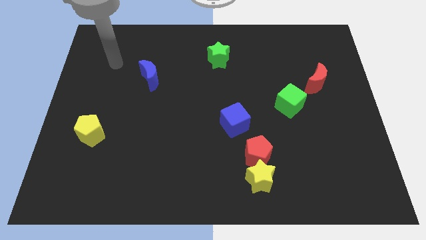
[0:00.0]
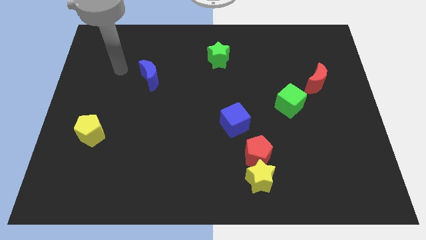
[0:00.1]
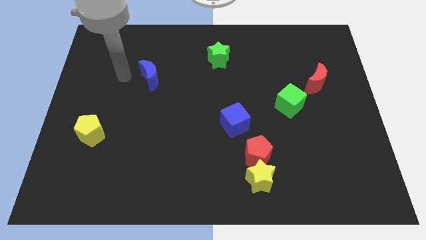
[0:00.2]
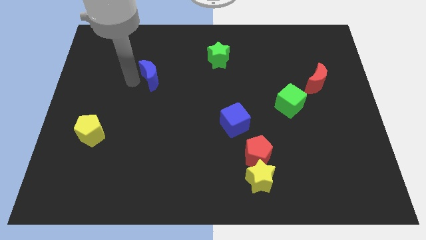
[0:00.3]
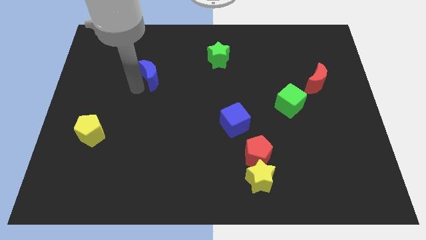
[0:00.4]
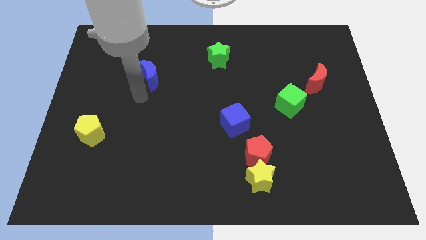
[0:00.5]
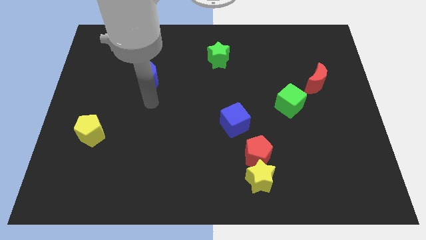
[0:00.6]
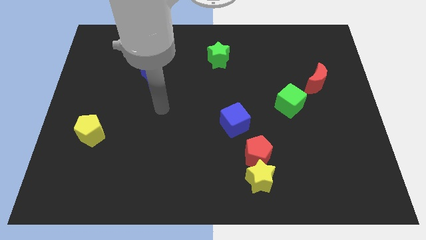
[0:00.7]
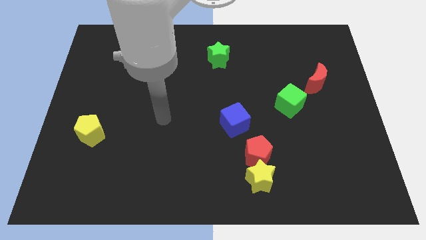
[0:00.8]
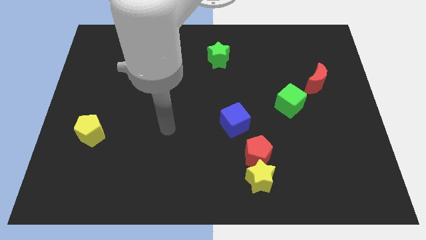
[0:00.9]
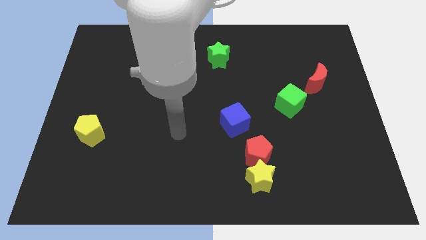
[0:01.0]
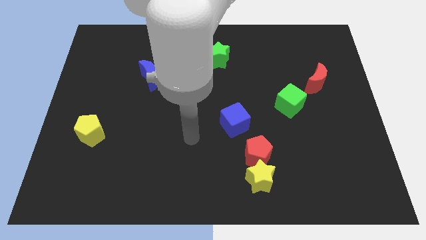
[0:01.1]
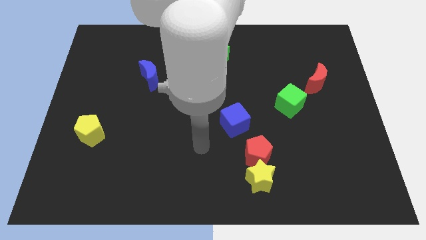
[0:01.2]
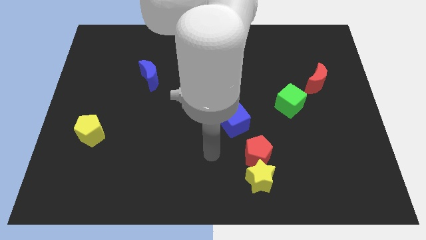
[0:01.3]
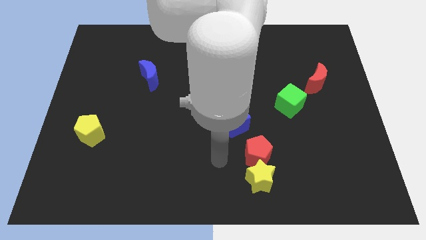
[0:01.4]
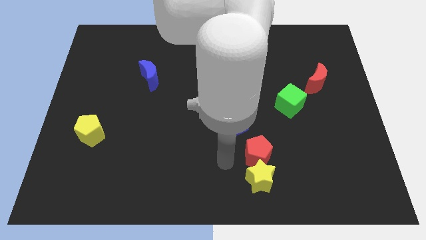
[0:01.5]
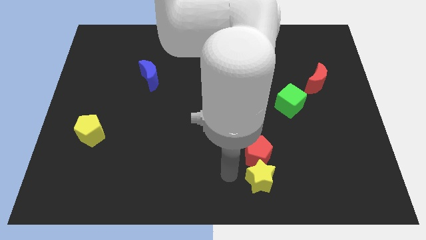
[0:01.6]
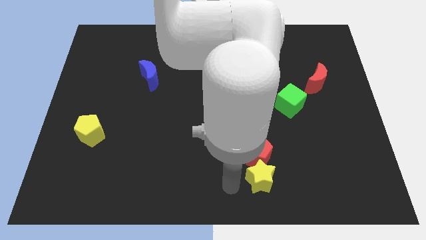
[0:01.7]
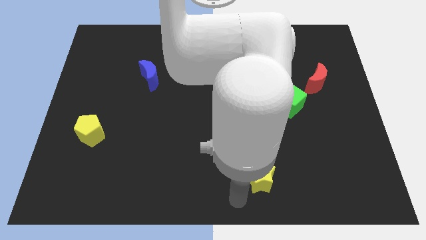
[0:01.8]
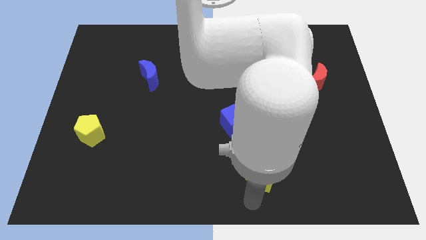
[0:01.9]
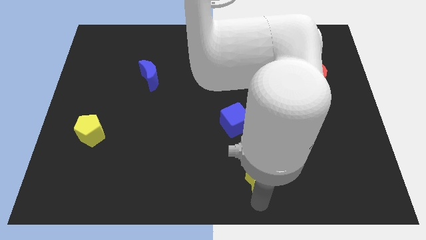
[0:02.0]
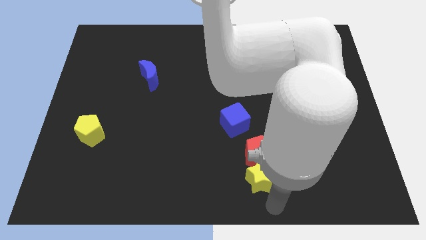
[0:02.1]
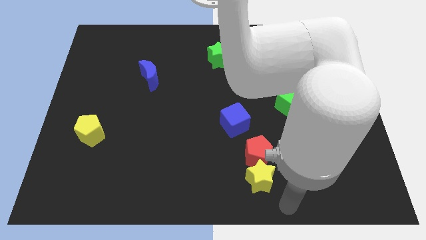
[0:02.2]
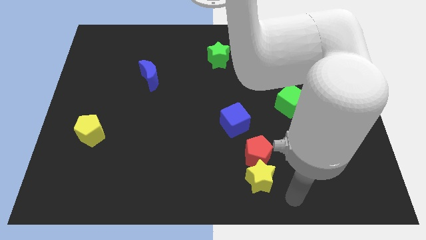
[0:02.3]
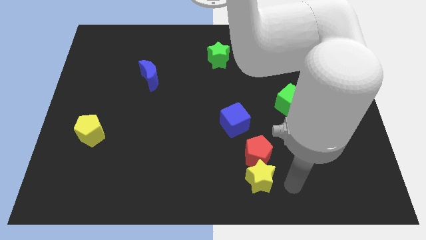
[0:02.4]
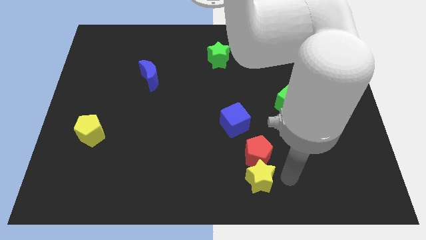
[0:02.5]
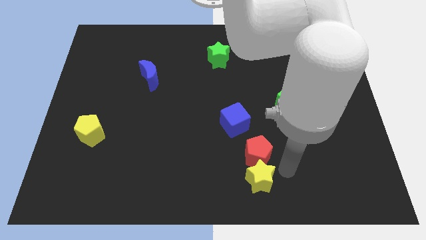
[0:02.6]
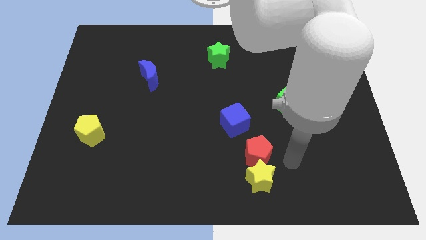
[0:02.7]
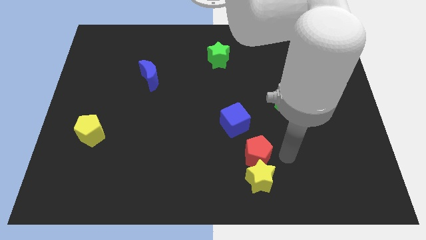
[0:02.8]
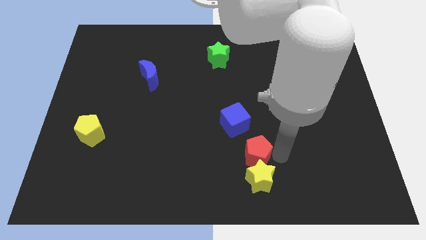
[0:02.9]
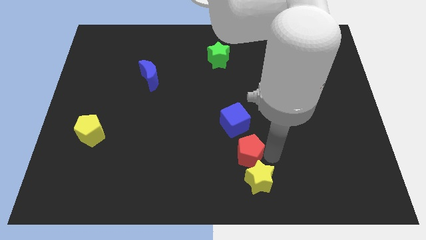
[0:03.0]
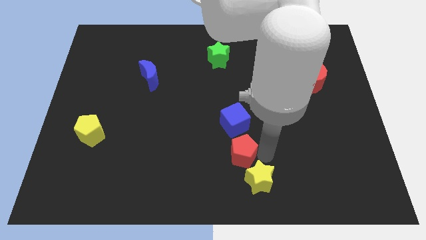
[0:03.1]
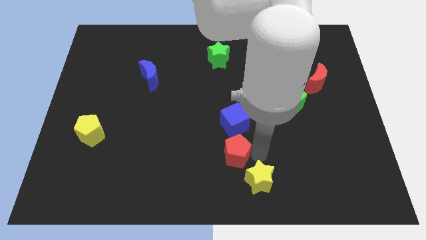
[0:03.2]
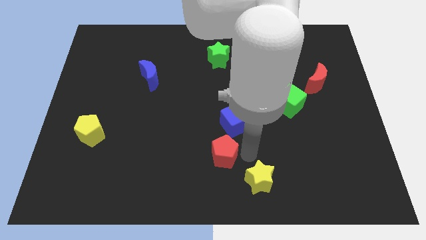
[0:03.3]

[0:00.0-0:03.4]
move the red pentagon left a little bit

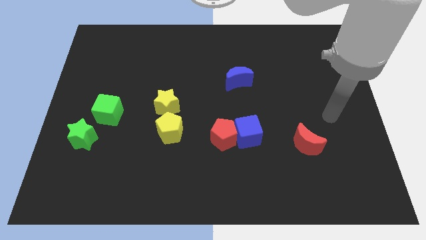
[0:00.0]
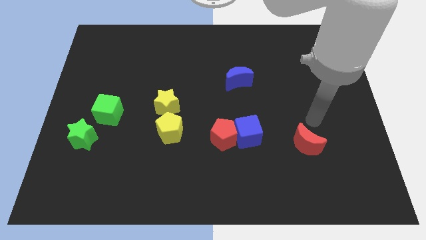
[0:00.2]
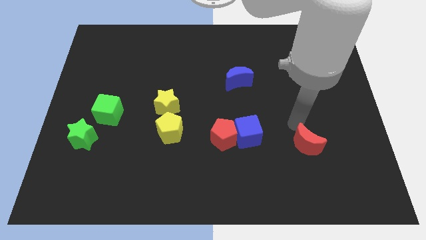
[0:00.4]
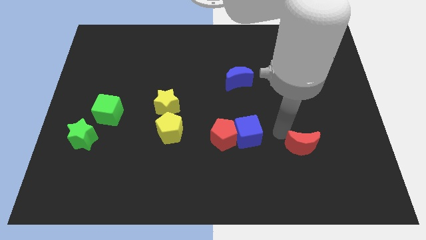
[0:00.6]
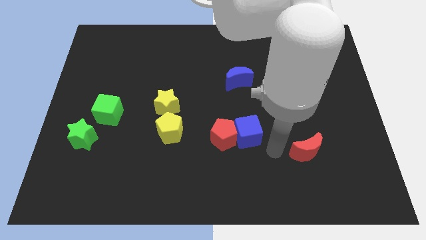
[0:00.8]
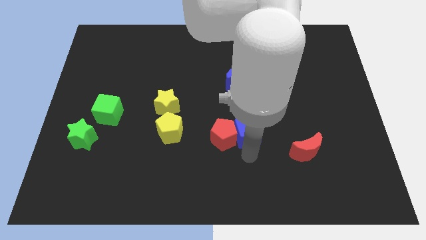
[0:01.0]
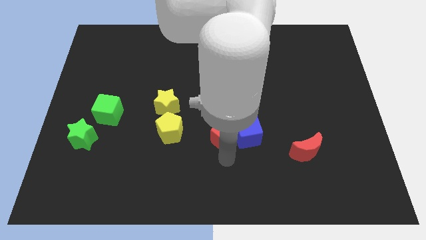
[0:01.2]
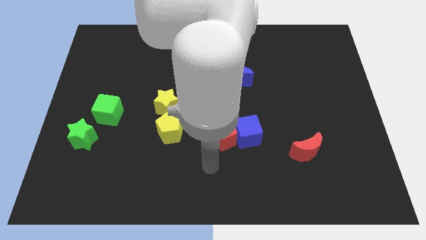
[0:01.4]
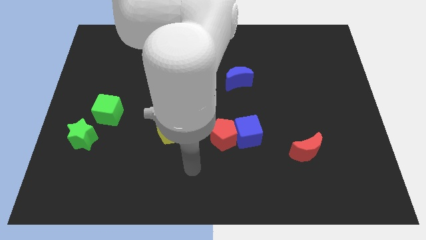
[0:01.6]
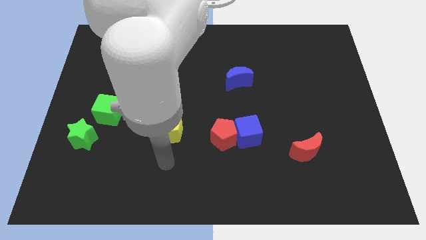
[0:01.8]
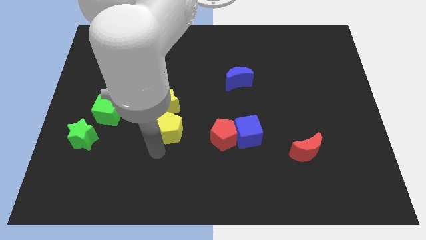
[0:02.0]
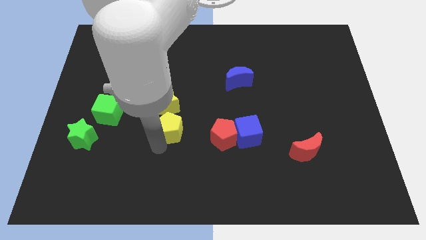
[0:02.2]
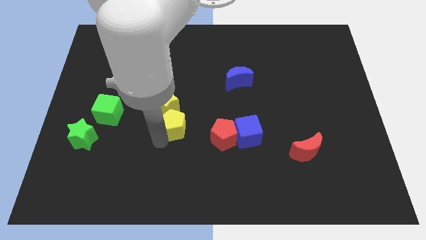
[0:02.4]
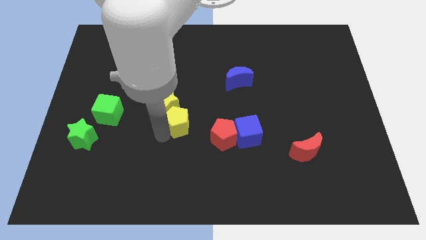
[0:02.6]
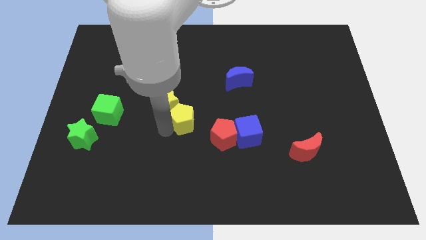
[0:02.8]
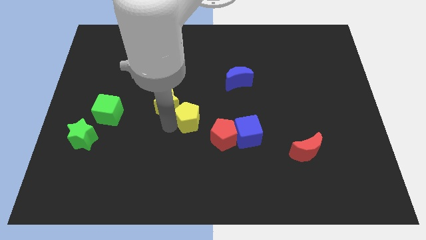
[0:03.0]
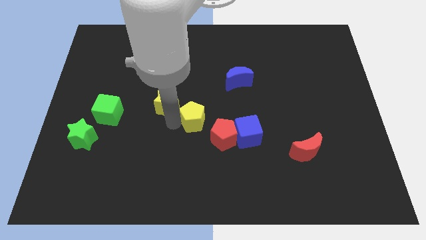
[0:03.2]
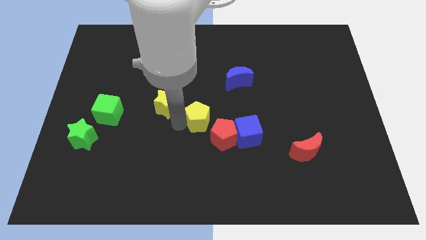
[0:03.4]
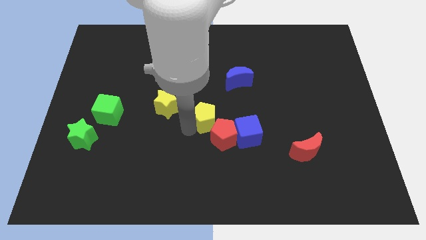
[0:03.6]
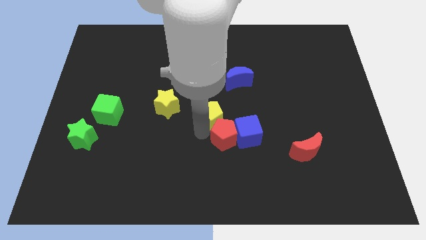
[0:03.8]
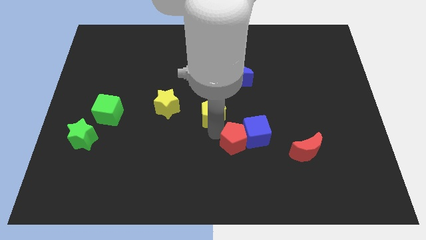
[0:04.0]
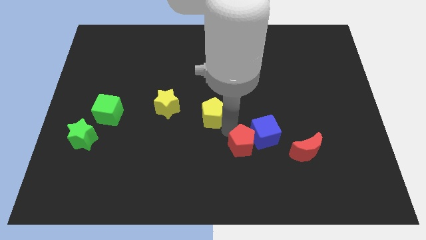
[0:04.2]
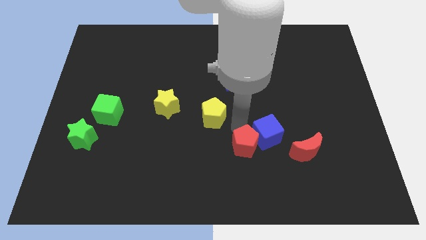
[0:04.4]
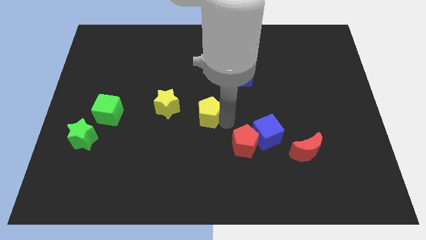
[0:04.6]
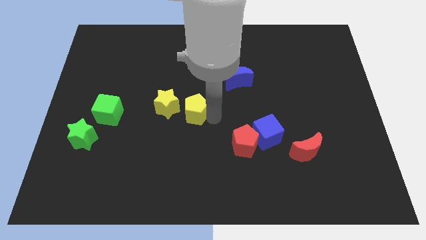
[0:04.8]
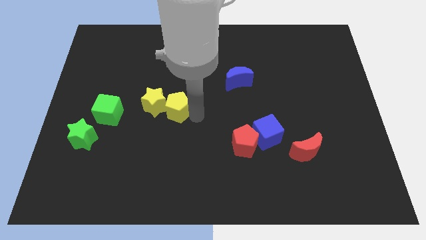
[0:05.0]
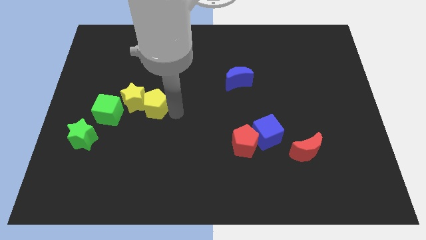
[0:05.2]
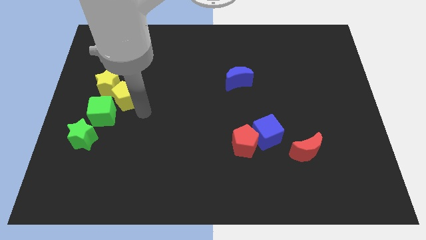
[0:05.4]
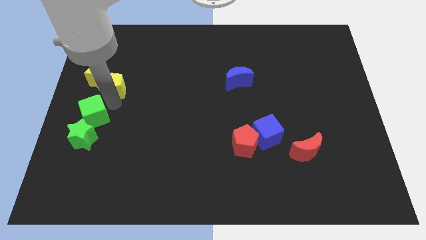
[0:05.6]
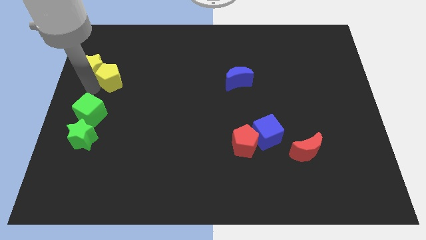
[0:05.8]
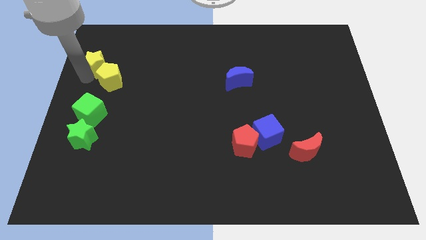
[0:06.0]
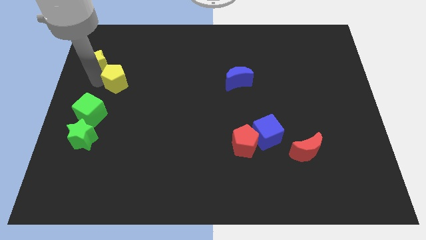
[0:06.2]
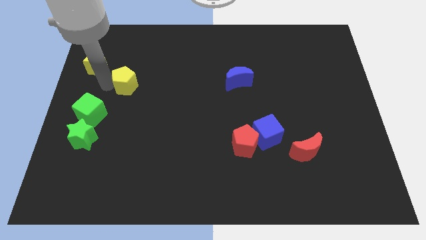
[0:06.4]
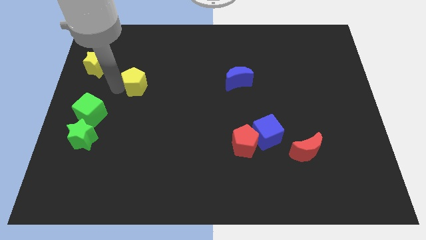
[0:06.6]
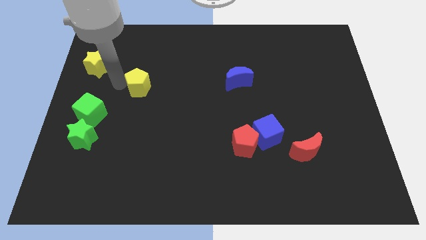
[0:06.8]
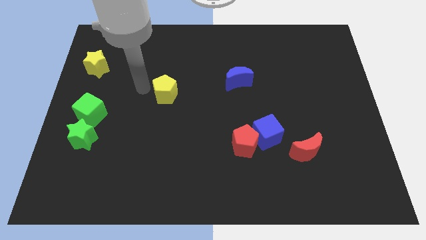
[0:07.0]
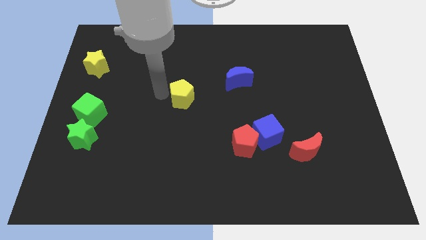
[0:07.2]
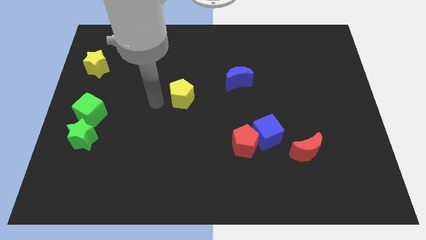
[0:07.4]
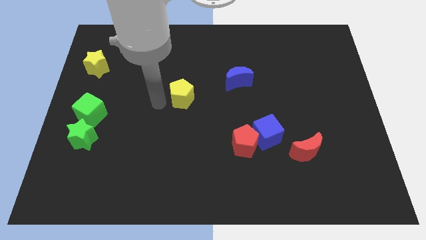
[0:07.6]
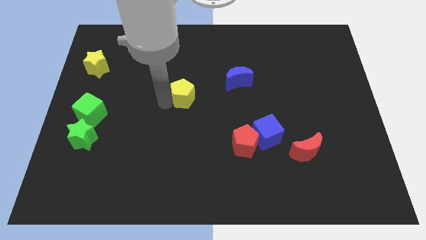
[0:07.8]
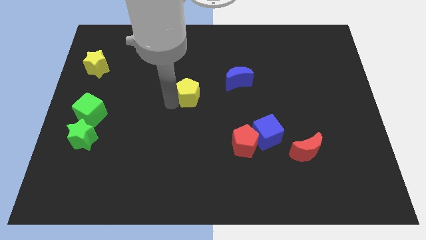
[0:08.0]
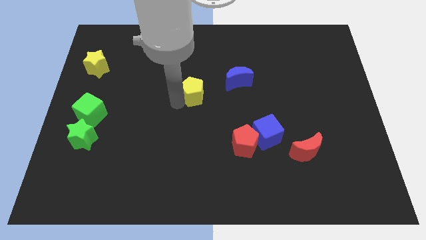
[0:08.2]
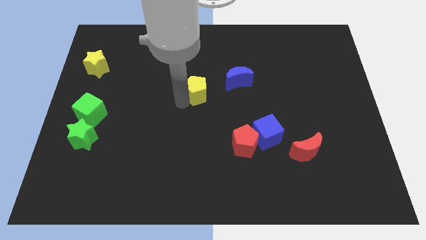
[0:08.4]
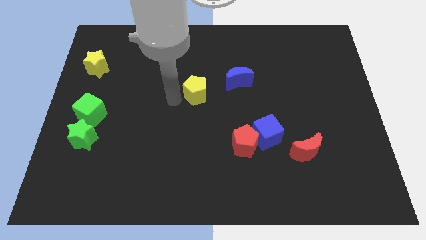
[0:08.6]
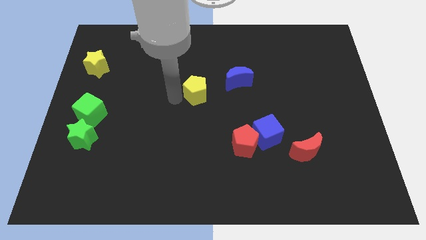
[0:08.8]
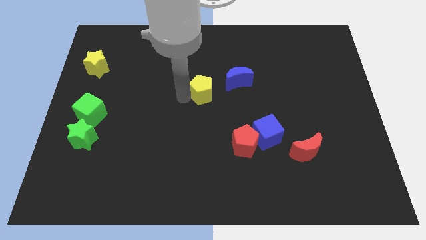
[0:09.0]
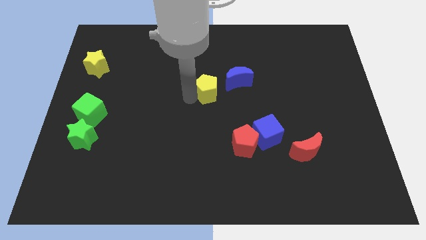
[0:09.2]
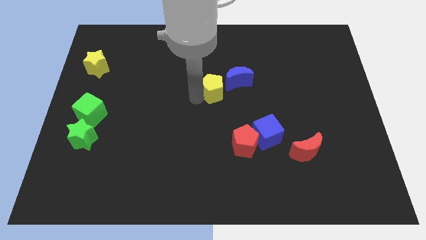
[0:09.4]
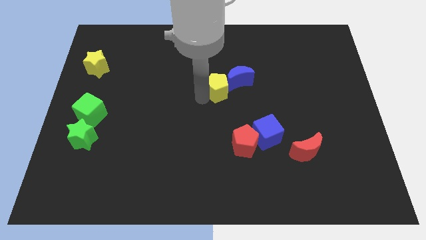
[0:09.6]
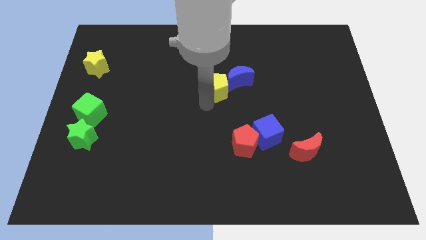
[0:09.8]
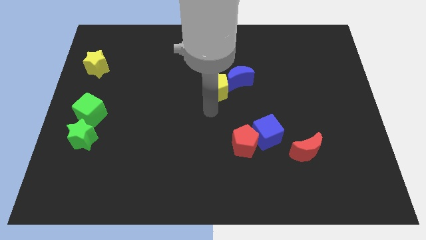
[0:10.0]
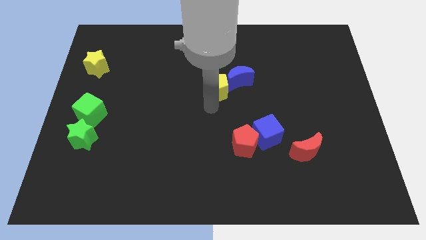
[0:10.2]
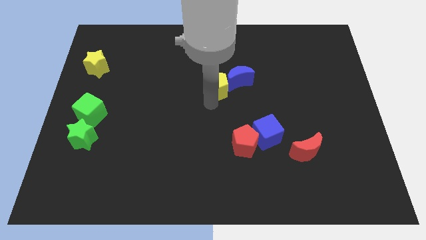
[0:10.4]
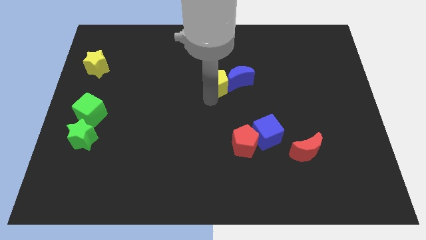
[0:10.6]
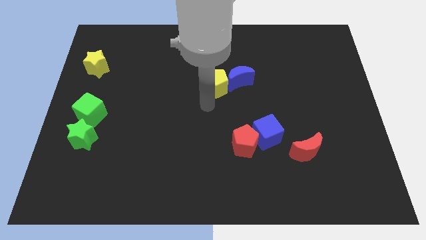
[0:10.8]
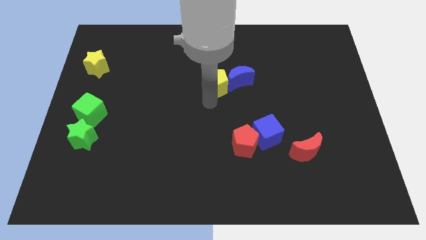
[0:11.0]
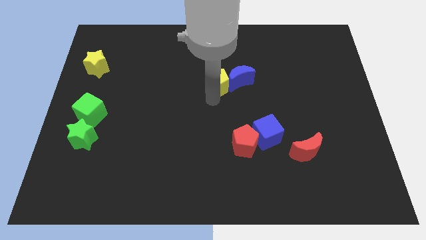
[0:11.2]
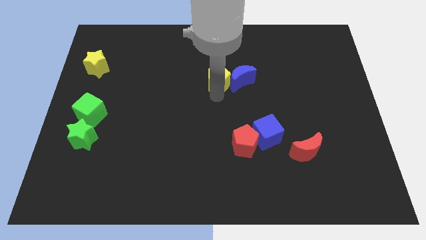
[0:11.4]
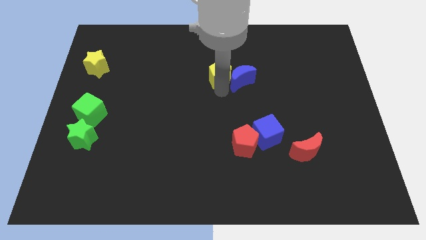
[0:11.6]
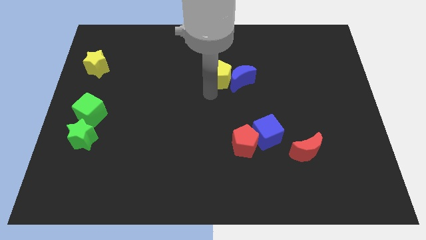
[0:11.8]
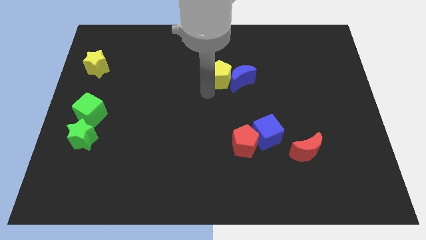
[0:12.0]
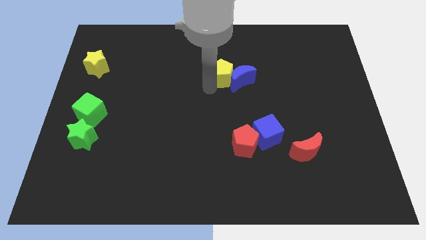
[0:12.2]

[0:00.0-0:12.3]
slide the yellow pentagon up and to the right
